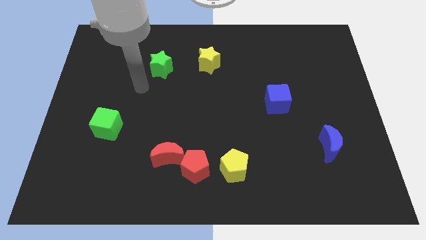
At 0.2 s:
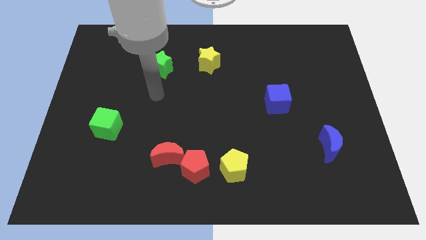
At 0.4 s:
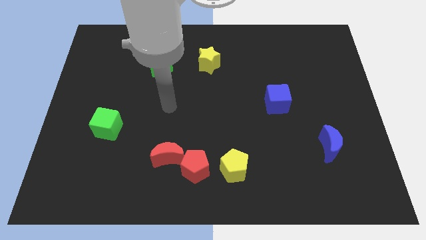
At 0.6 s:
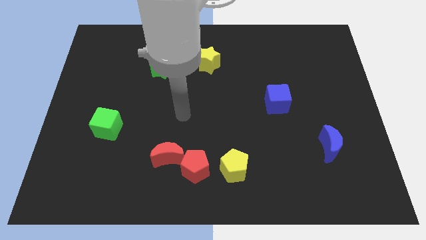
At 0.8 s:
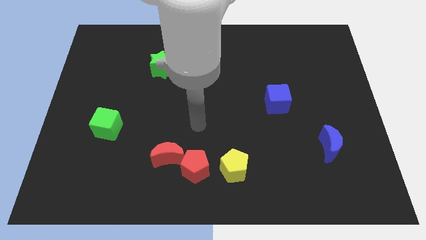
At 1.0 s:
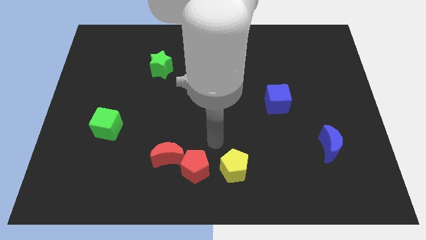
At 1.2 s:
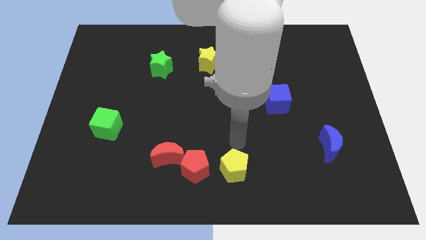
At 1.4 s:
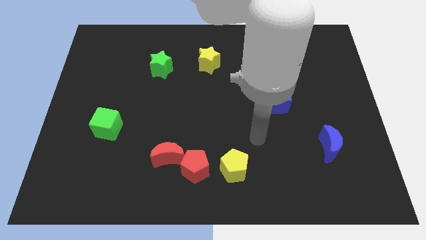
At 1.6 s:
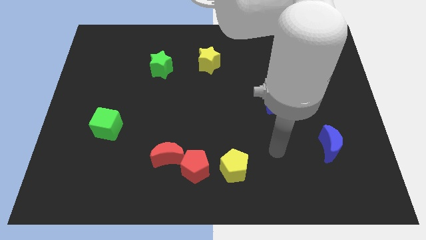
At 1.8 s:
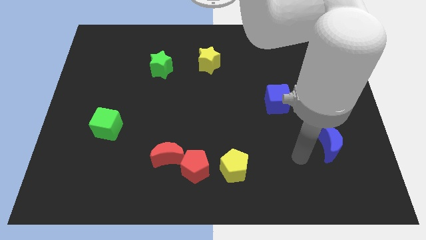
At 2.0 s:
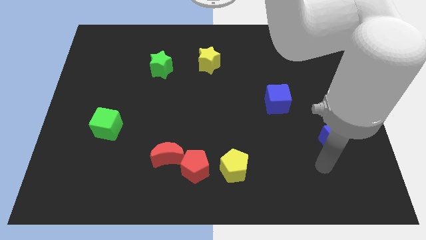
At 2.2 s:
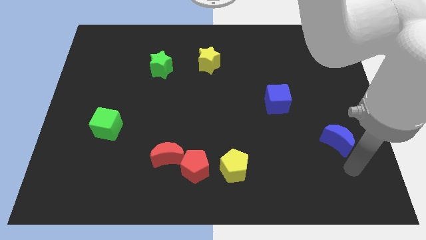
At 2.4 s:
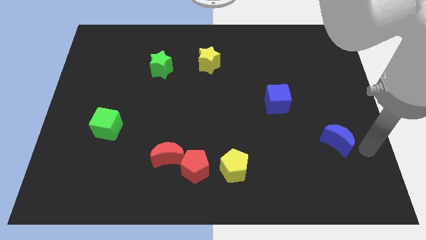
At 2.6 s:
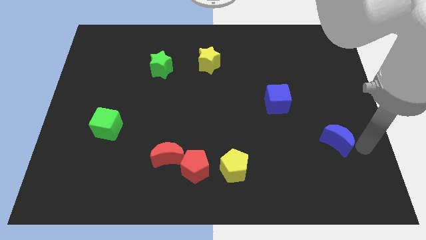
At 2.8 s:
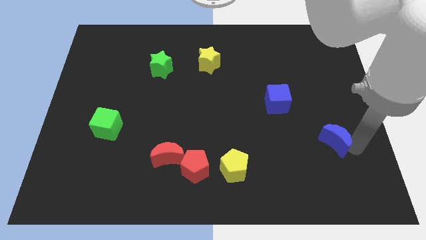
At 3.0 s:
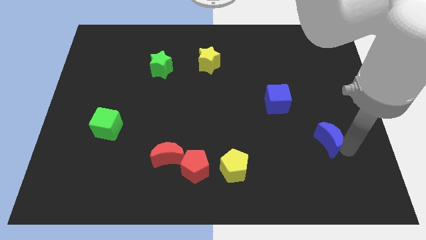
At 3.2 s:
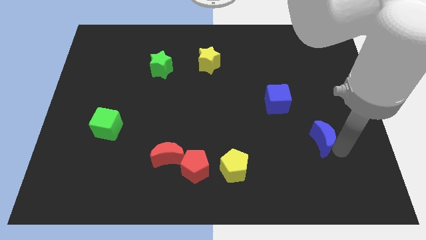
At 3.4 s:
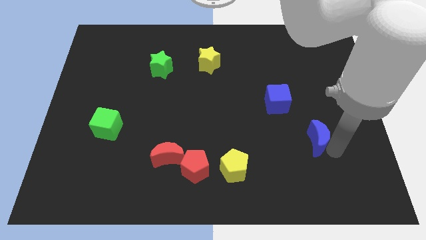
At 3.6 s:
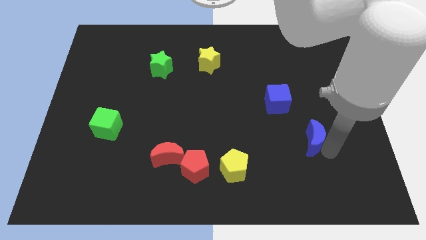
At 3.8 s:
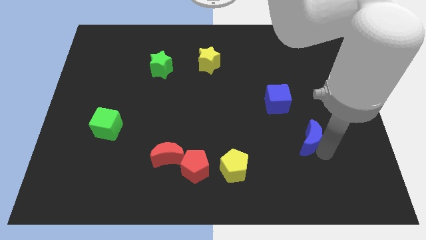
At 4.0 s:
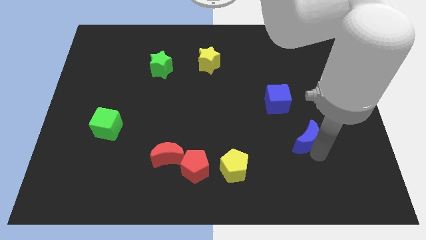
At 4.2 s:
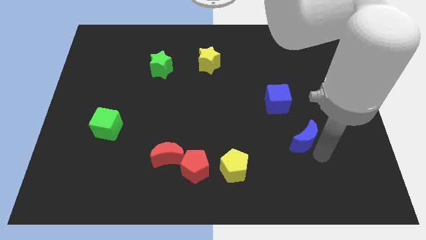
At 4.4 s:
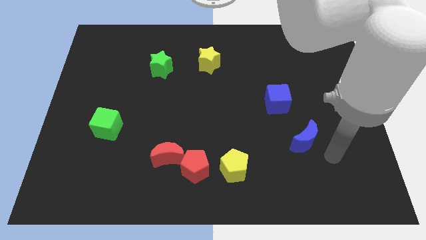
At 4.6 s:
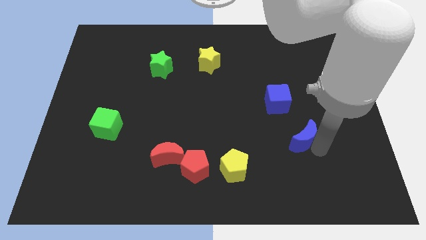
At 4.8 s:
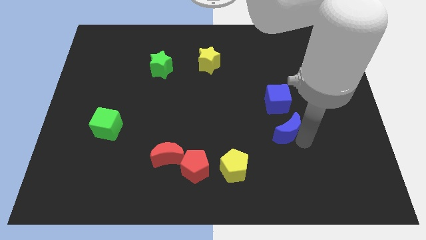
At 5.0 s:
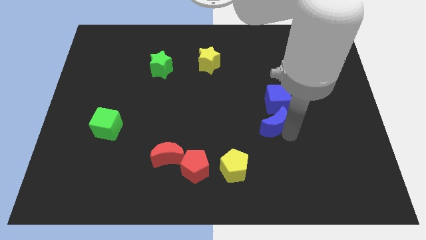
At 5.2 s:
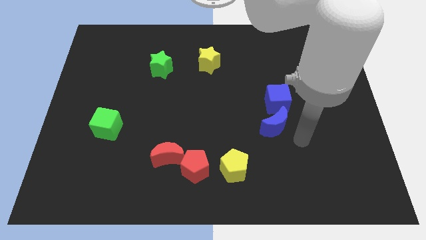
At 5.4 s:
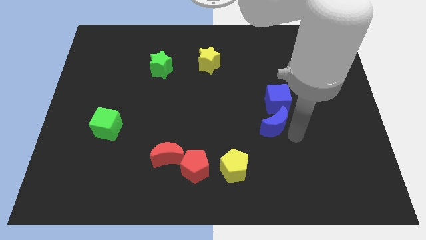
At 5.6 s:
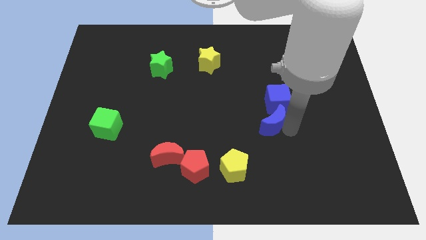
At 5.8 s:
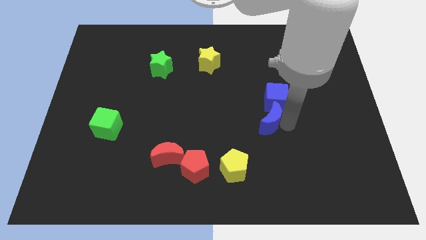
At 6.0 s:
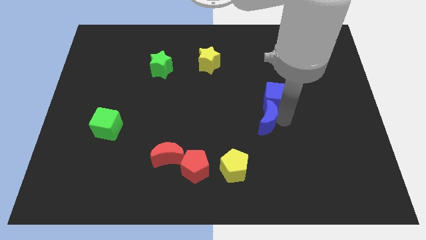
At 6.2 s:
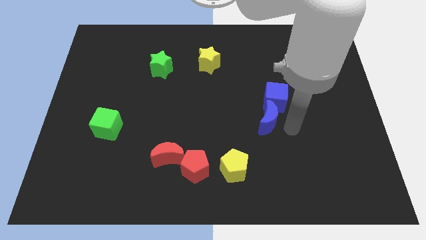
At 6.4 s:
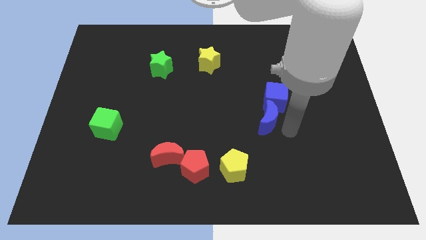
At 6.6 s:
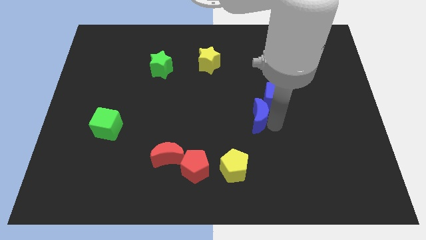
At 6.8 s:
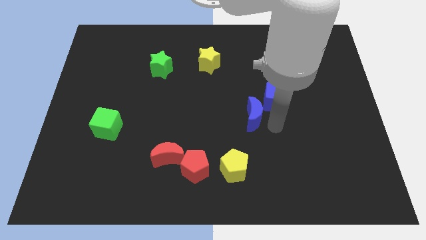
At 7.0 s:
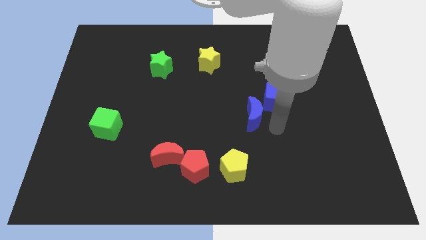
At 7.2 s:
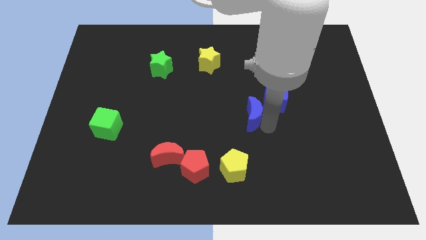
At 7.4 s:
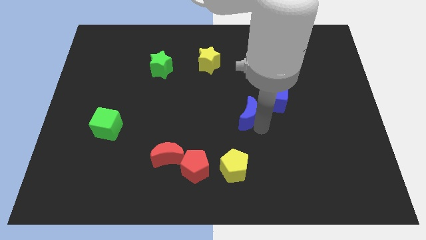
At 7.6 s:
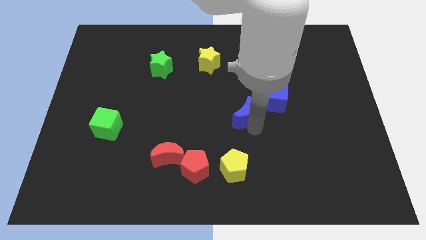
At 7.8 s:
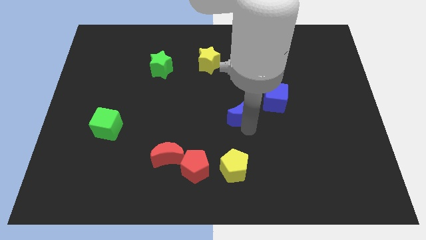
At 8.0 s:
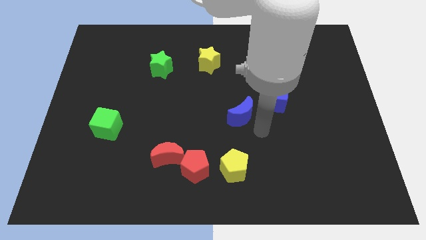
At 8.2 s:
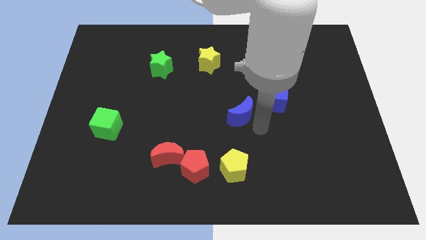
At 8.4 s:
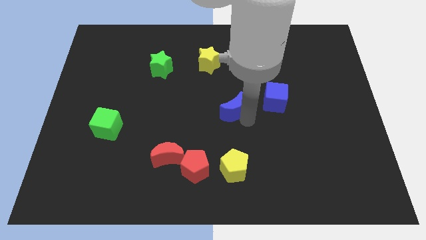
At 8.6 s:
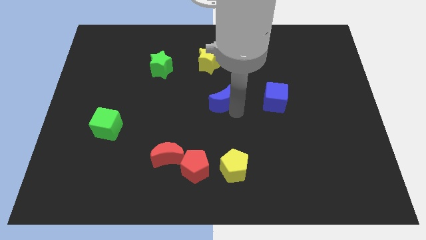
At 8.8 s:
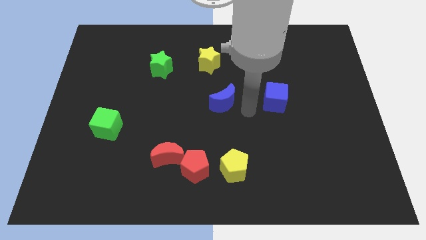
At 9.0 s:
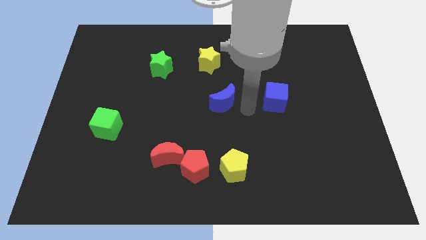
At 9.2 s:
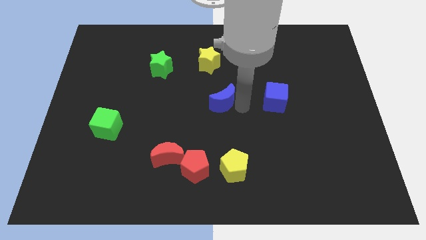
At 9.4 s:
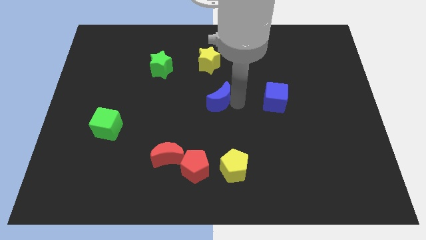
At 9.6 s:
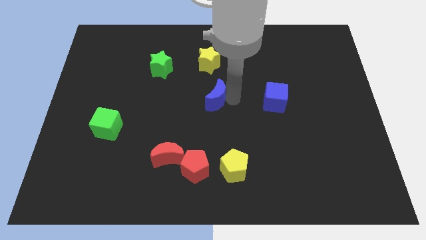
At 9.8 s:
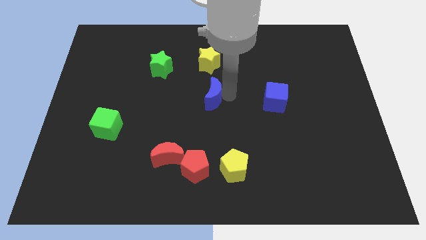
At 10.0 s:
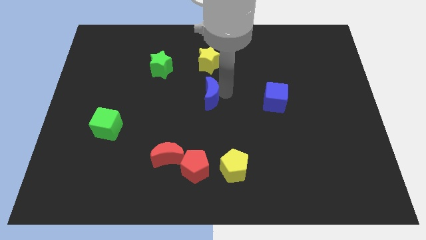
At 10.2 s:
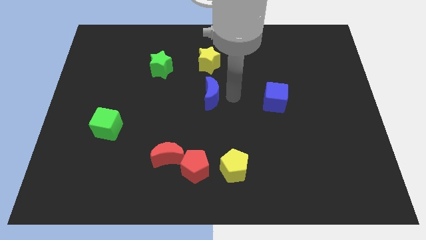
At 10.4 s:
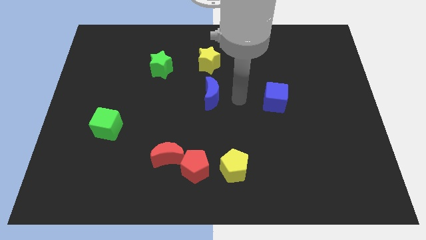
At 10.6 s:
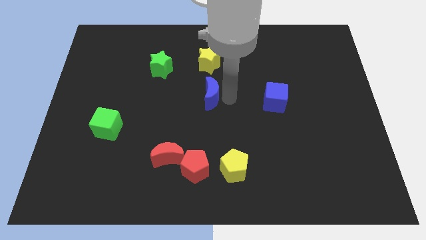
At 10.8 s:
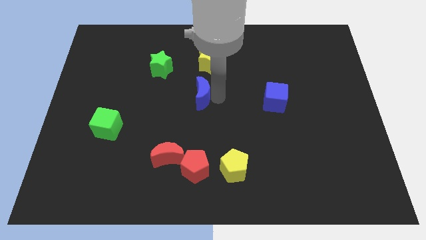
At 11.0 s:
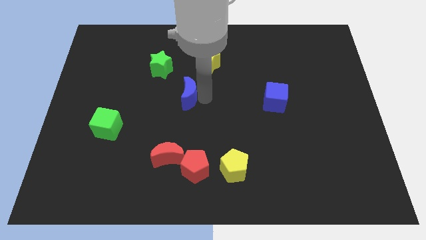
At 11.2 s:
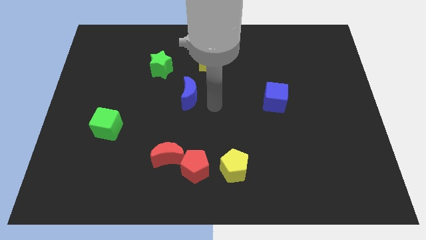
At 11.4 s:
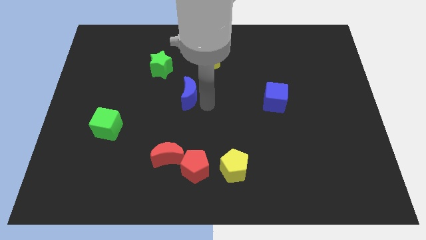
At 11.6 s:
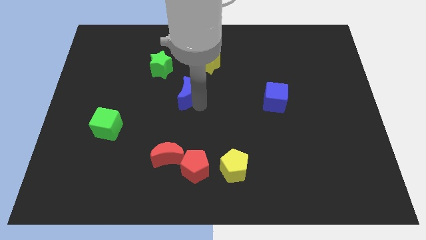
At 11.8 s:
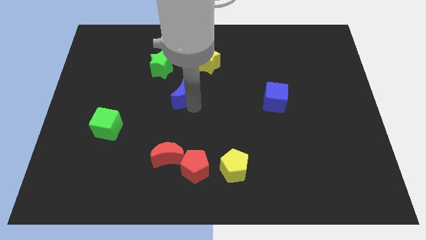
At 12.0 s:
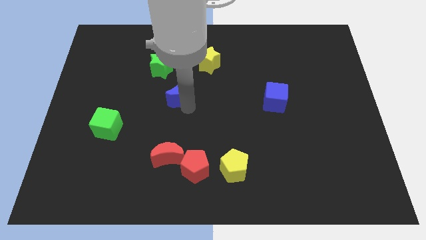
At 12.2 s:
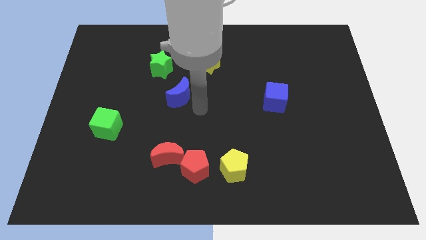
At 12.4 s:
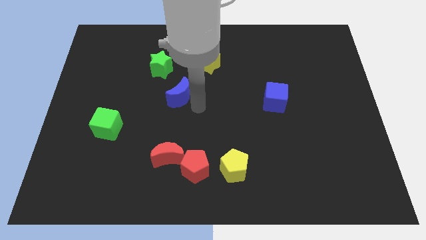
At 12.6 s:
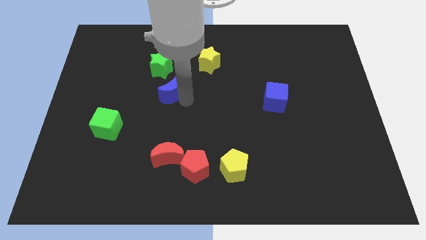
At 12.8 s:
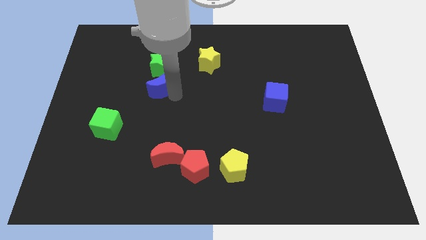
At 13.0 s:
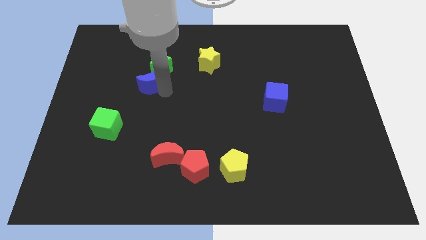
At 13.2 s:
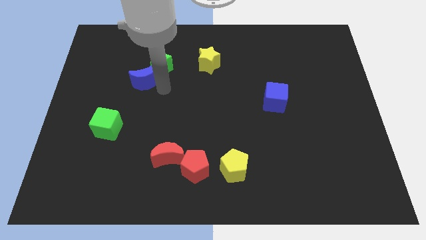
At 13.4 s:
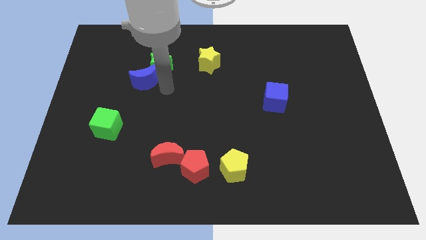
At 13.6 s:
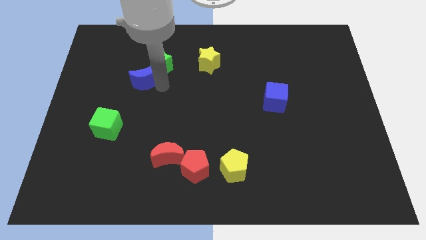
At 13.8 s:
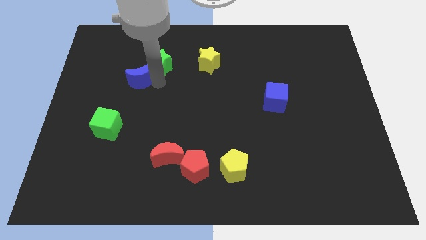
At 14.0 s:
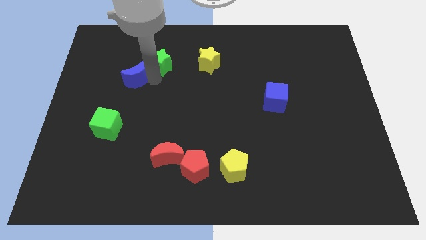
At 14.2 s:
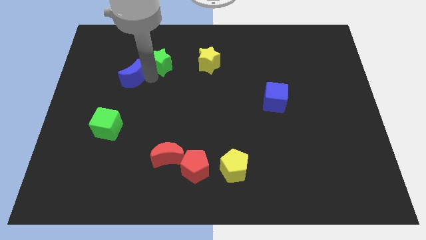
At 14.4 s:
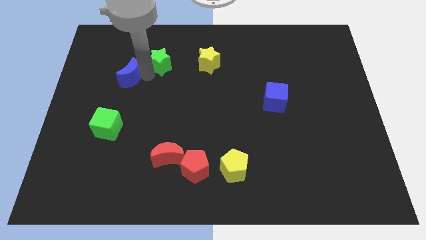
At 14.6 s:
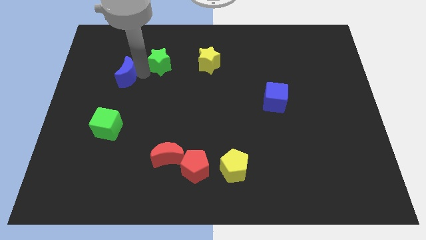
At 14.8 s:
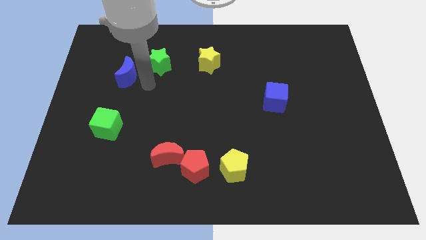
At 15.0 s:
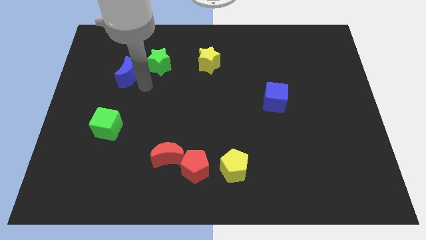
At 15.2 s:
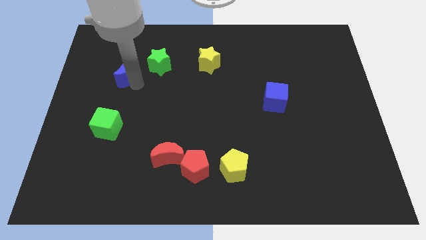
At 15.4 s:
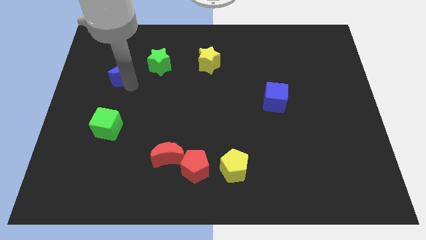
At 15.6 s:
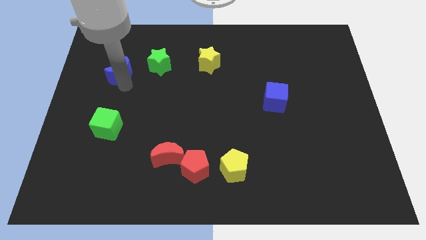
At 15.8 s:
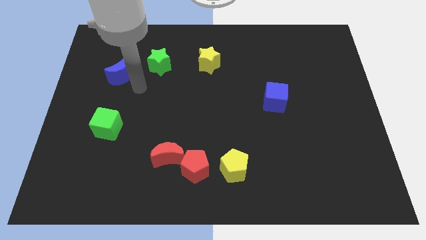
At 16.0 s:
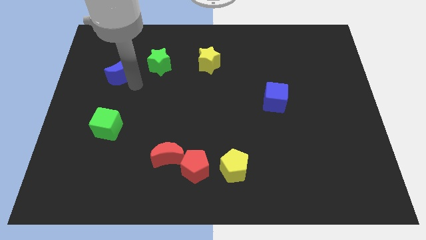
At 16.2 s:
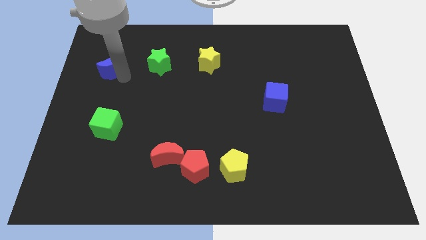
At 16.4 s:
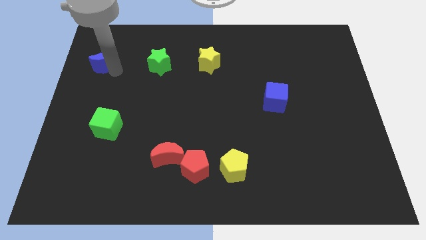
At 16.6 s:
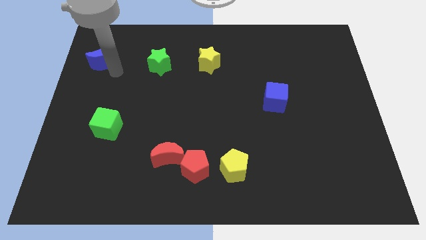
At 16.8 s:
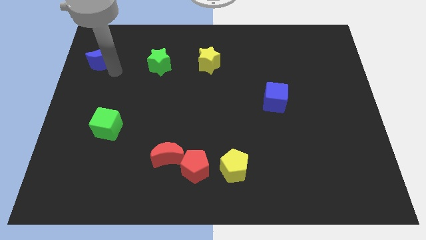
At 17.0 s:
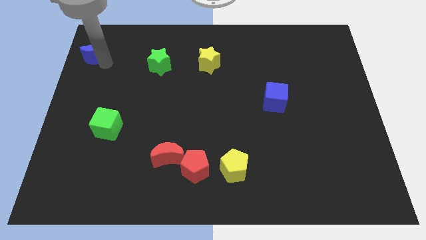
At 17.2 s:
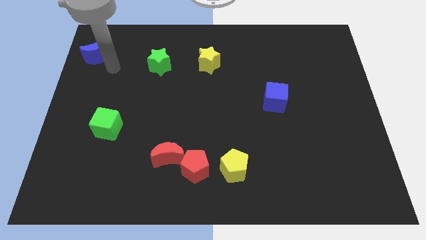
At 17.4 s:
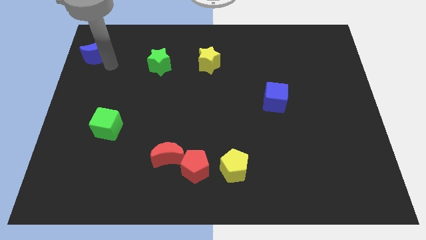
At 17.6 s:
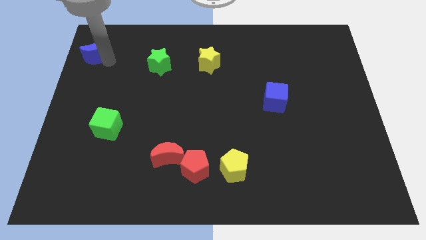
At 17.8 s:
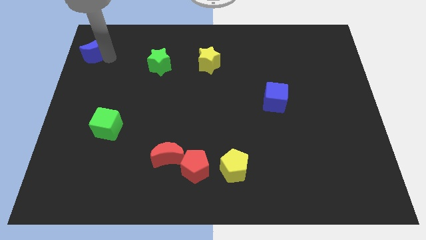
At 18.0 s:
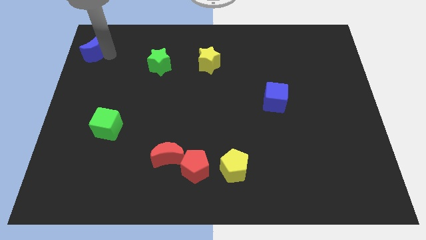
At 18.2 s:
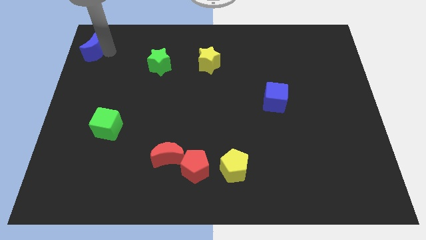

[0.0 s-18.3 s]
move the blue moon to the upper left corner
